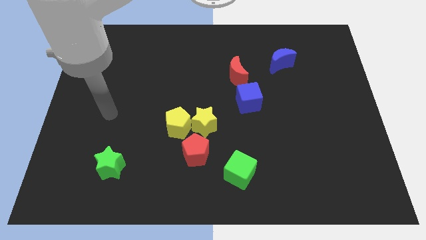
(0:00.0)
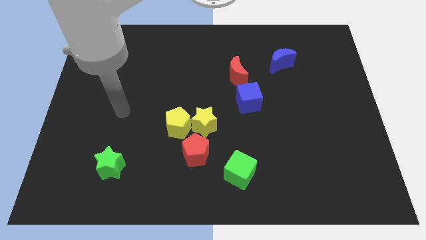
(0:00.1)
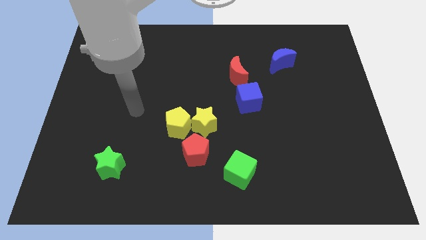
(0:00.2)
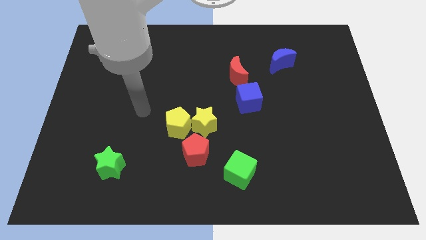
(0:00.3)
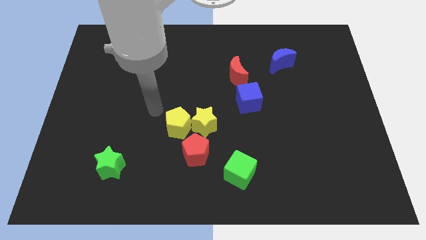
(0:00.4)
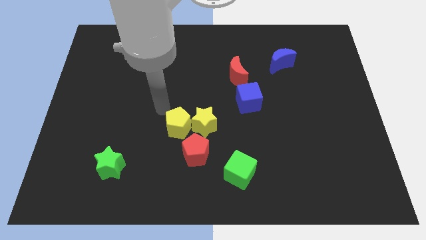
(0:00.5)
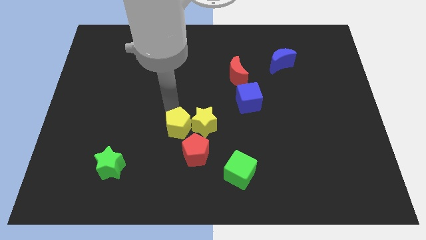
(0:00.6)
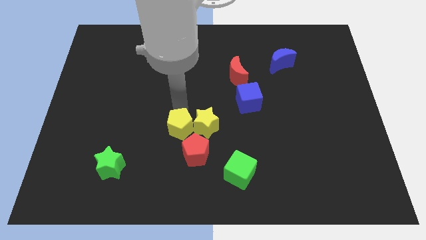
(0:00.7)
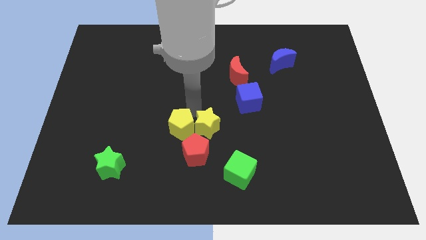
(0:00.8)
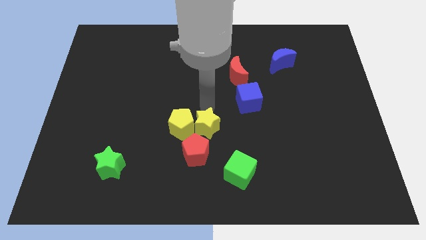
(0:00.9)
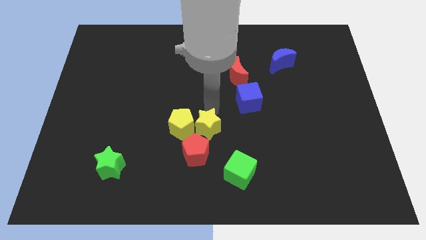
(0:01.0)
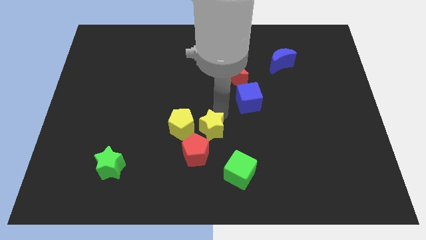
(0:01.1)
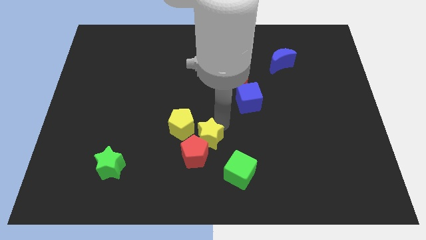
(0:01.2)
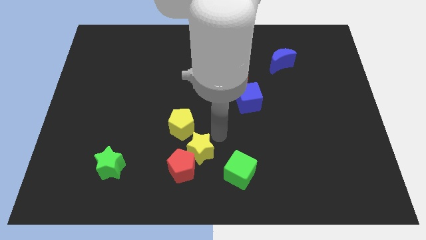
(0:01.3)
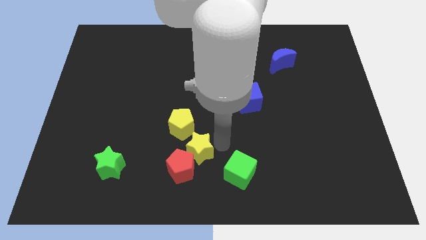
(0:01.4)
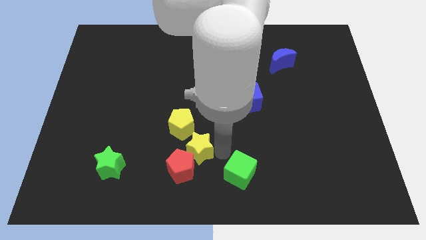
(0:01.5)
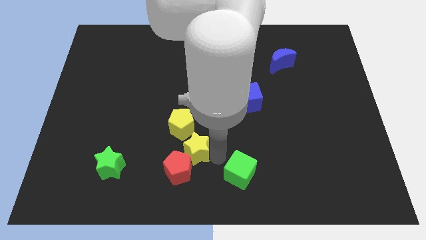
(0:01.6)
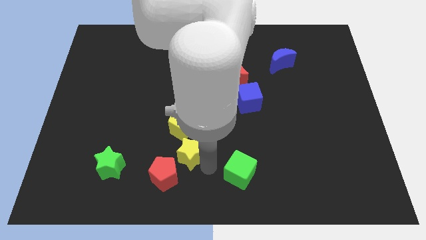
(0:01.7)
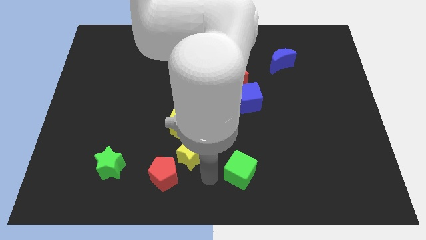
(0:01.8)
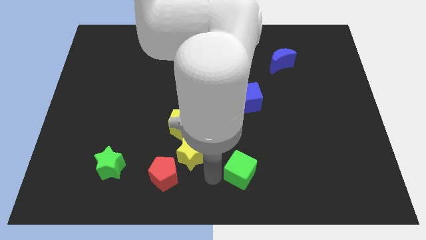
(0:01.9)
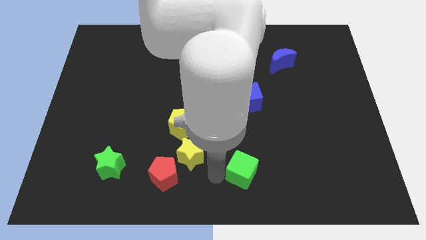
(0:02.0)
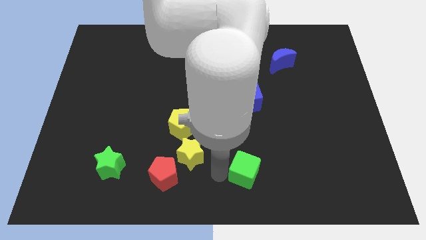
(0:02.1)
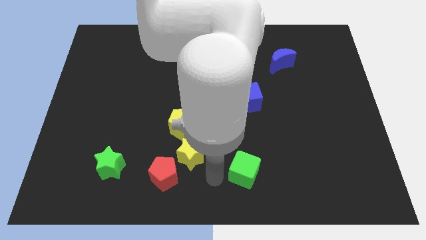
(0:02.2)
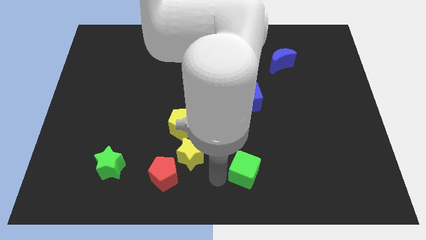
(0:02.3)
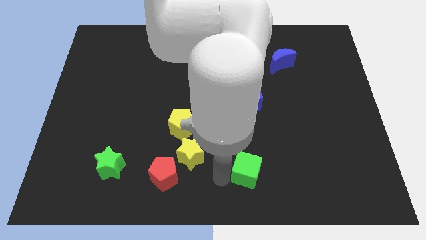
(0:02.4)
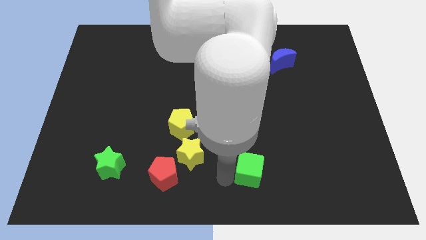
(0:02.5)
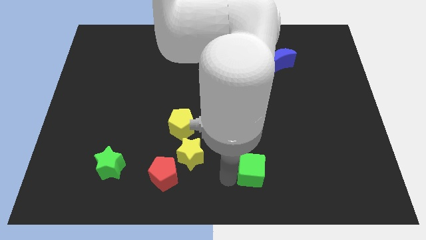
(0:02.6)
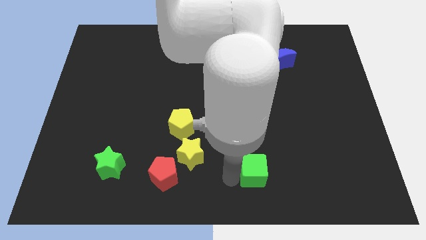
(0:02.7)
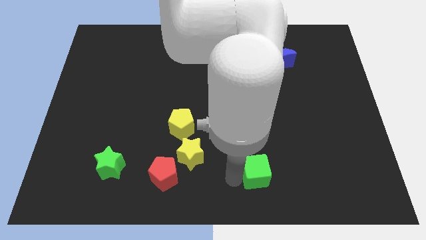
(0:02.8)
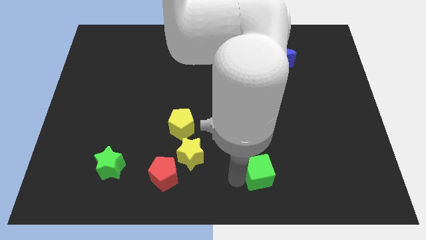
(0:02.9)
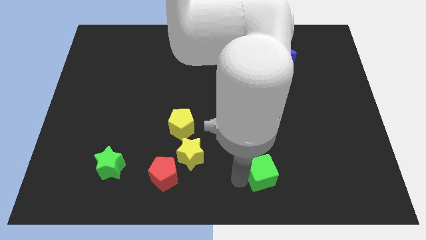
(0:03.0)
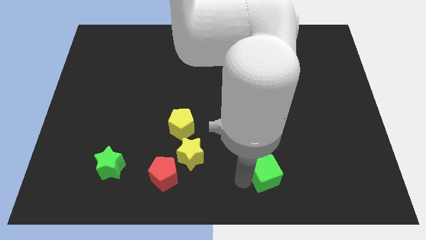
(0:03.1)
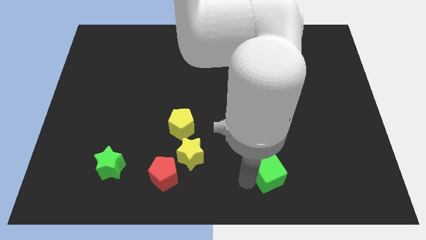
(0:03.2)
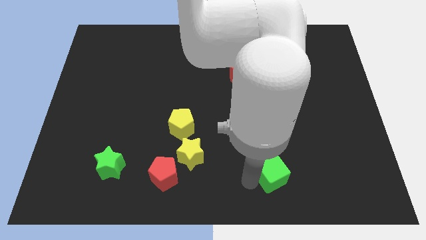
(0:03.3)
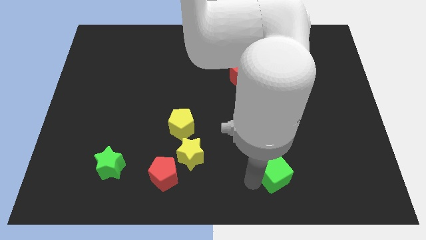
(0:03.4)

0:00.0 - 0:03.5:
push the green cube to the right a little bit

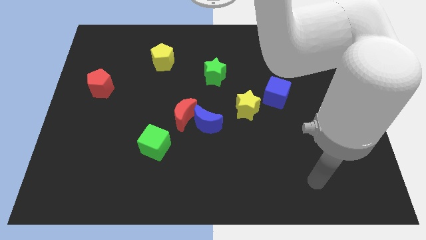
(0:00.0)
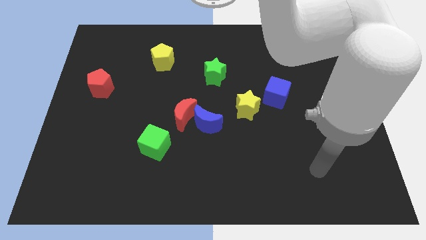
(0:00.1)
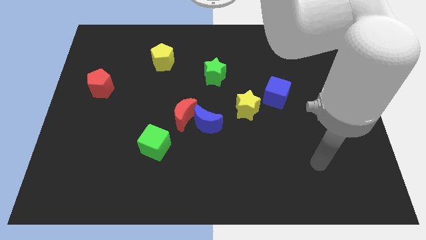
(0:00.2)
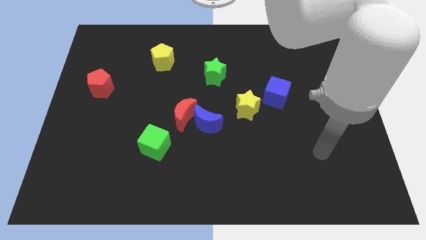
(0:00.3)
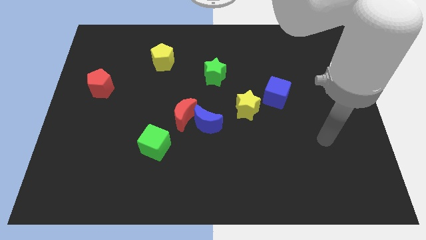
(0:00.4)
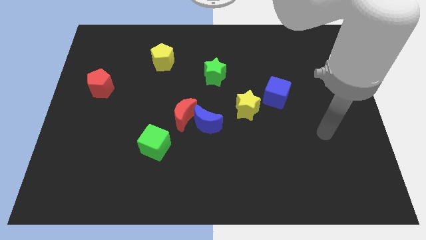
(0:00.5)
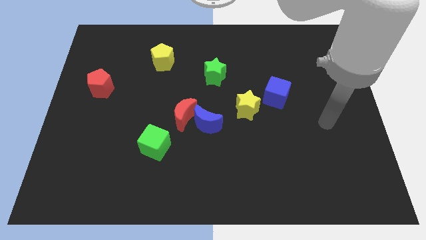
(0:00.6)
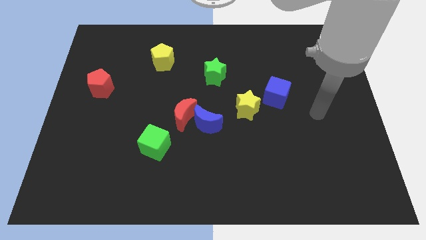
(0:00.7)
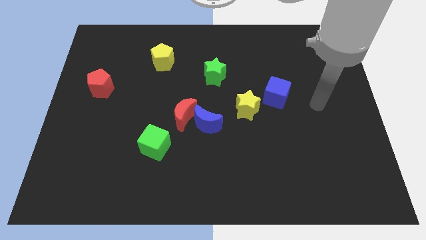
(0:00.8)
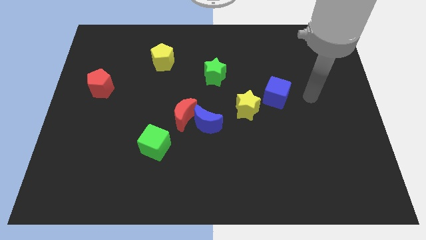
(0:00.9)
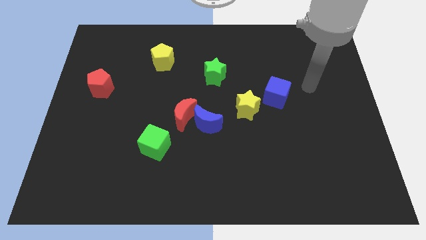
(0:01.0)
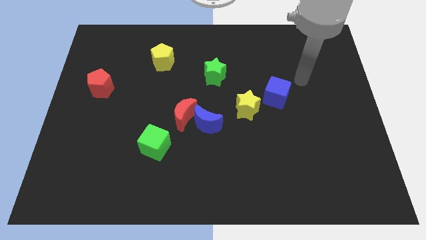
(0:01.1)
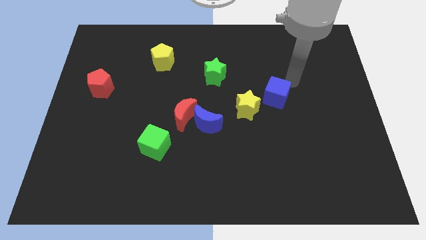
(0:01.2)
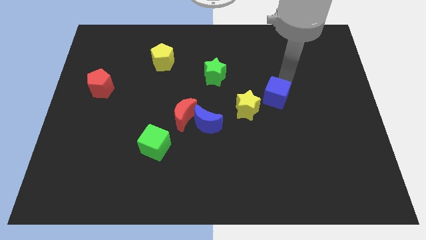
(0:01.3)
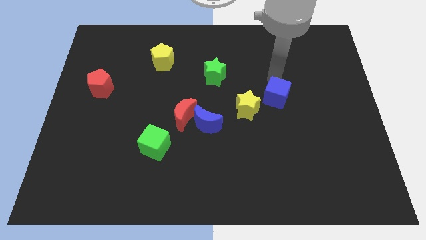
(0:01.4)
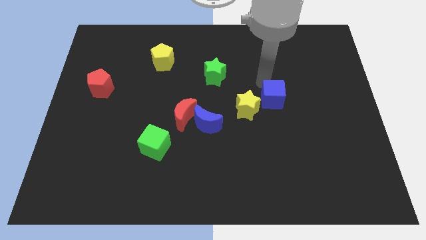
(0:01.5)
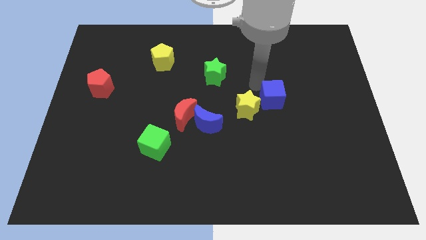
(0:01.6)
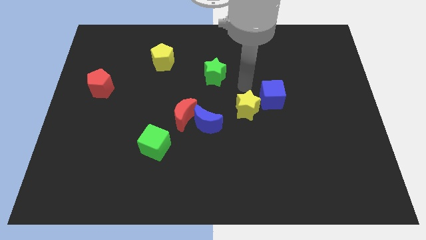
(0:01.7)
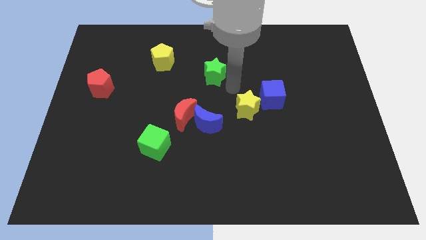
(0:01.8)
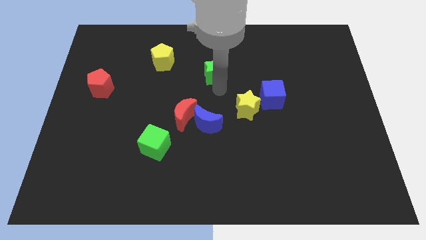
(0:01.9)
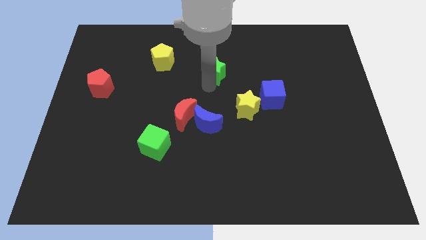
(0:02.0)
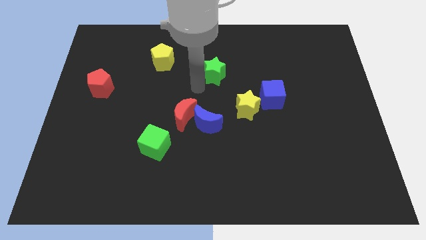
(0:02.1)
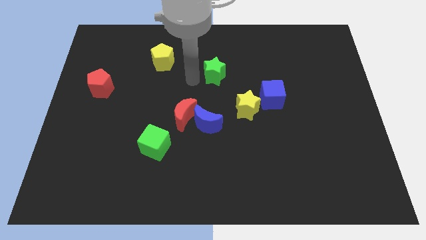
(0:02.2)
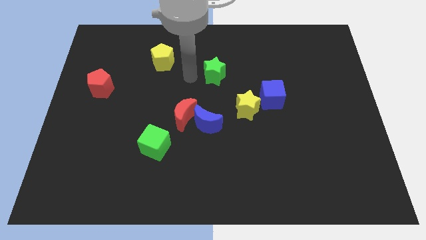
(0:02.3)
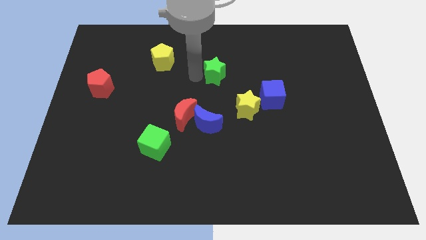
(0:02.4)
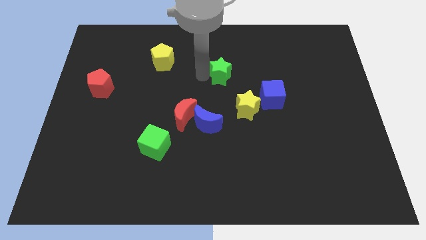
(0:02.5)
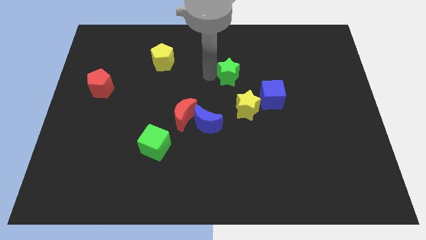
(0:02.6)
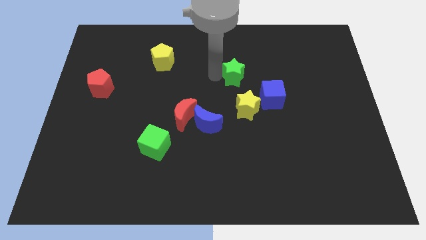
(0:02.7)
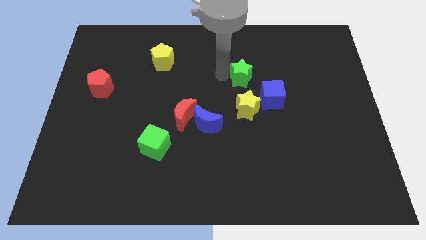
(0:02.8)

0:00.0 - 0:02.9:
move the green star slightly to the right

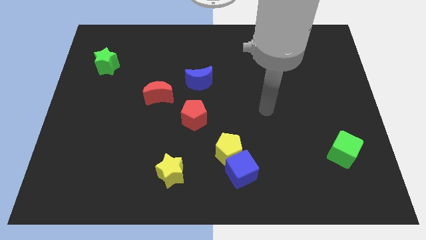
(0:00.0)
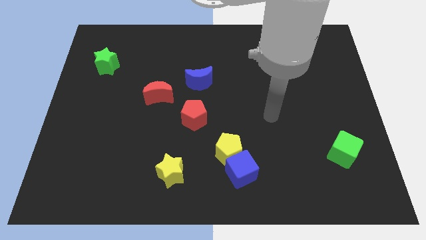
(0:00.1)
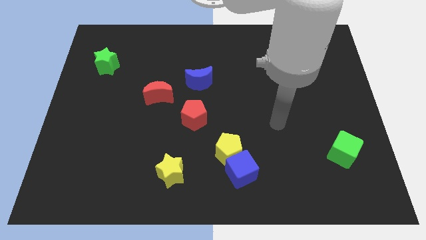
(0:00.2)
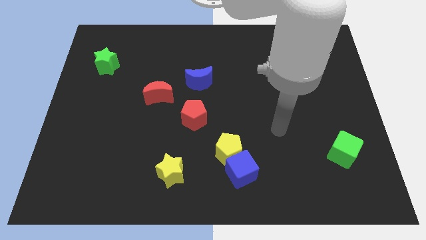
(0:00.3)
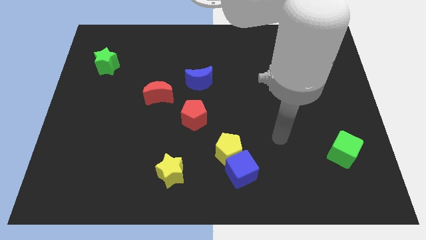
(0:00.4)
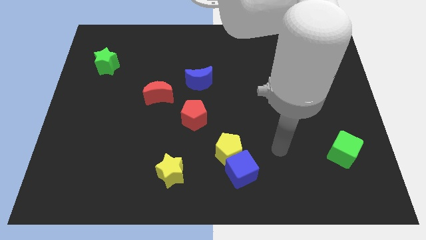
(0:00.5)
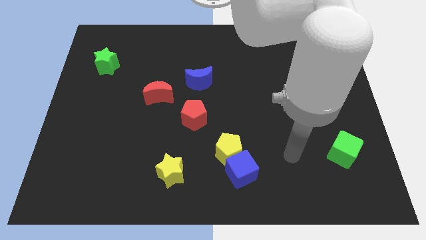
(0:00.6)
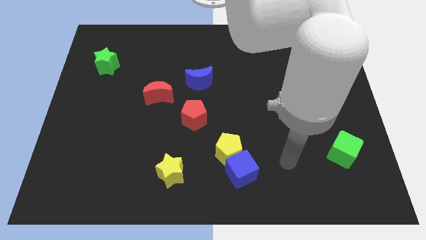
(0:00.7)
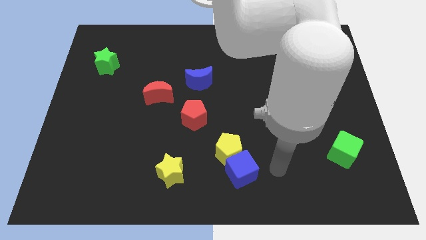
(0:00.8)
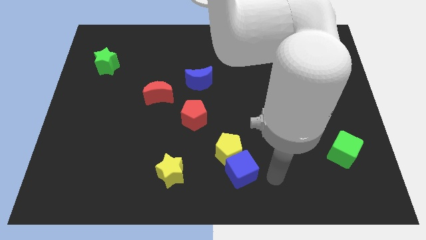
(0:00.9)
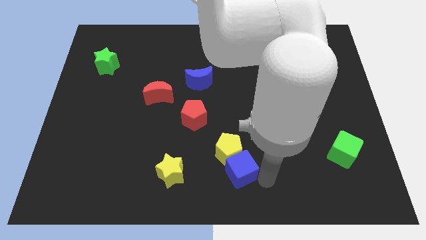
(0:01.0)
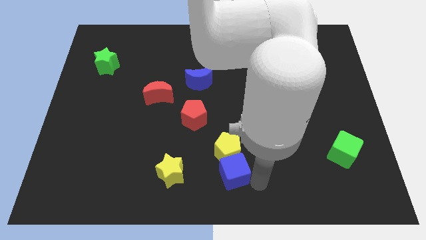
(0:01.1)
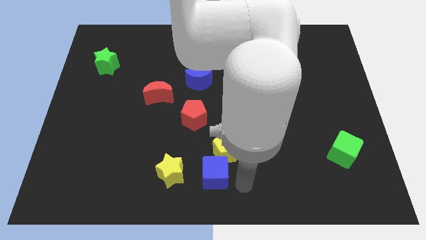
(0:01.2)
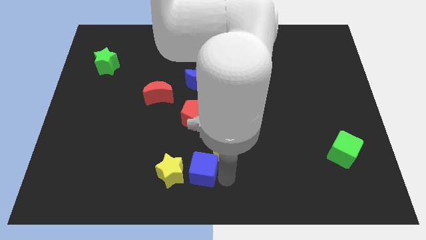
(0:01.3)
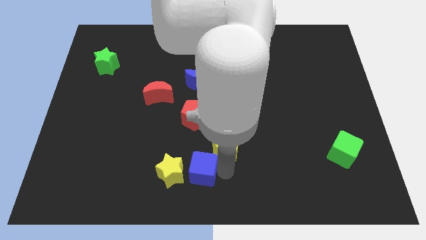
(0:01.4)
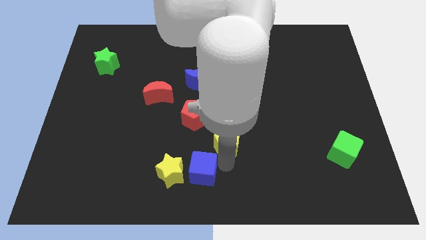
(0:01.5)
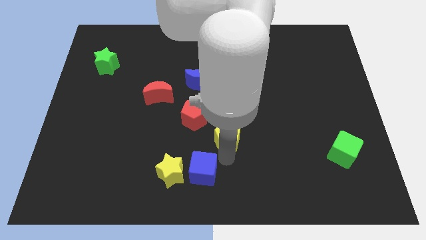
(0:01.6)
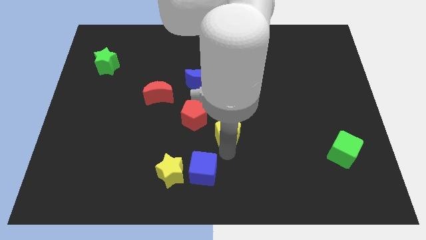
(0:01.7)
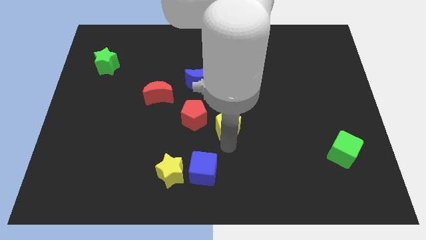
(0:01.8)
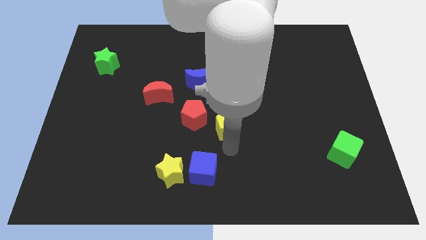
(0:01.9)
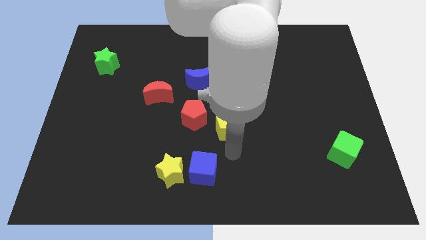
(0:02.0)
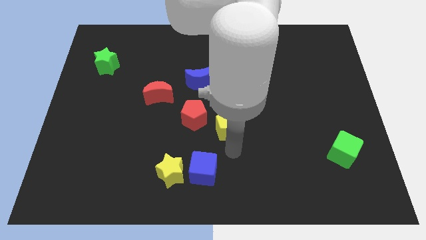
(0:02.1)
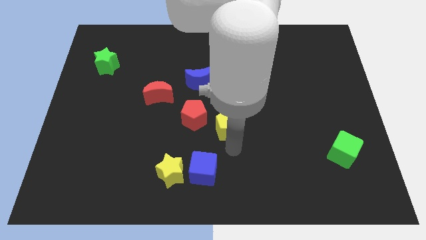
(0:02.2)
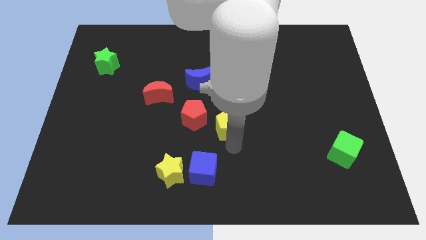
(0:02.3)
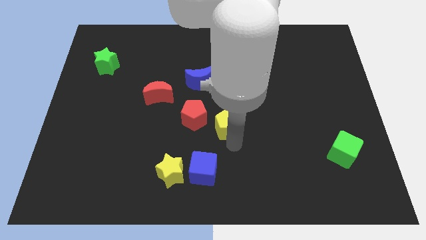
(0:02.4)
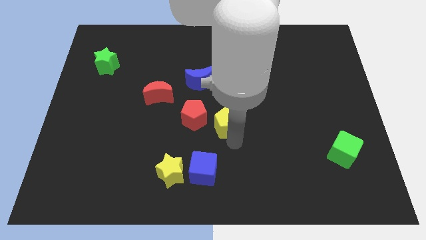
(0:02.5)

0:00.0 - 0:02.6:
slide the yellow pentagon a little bit upwards
